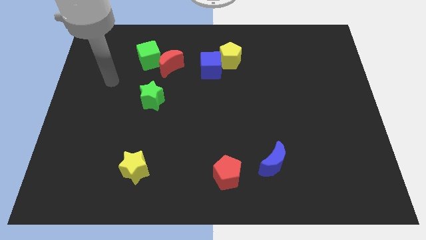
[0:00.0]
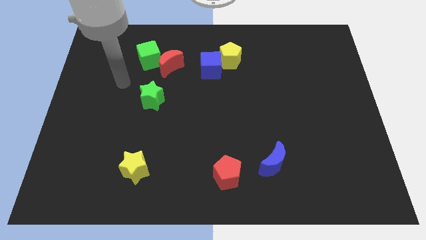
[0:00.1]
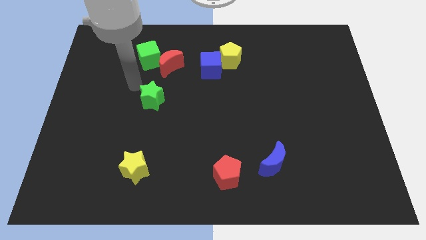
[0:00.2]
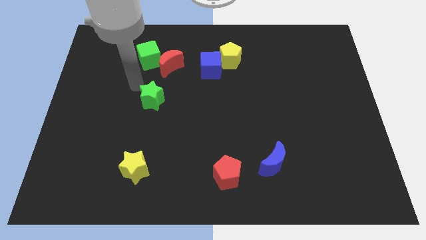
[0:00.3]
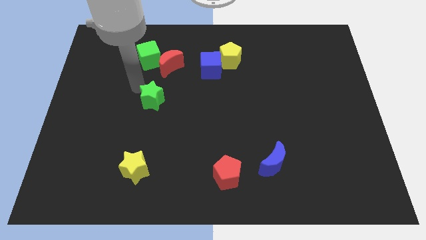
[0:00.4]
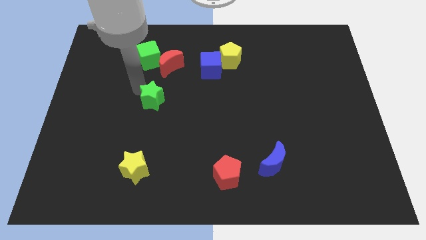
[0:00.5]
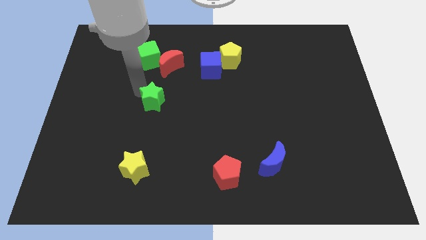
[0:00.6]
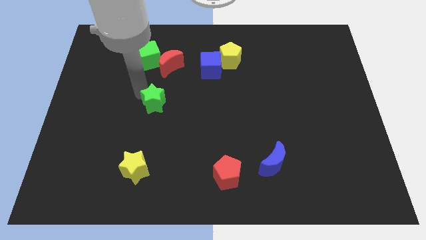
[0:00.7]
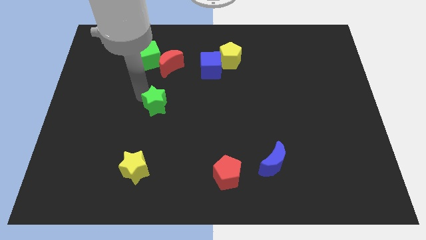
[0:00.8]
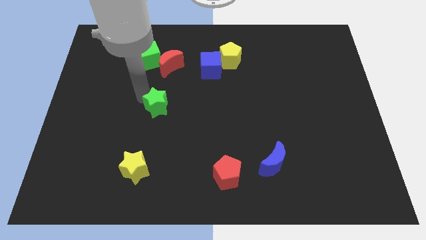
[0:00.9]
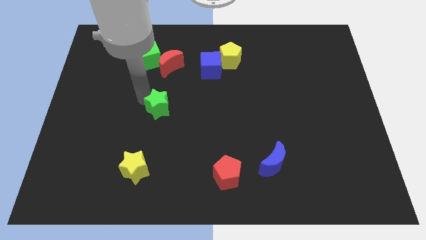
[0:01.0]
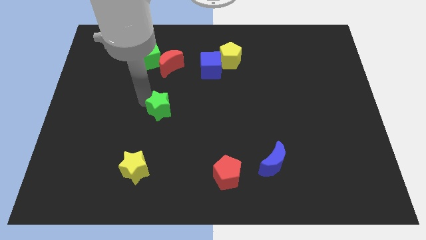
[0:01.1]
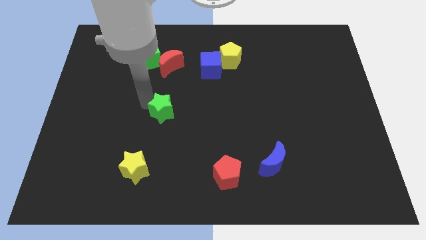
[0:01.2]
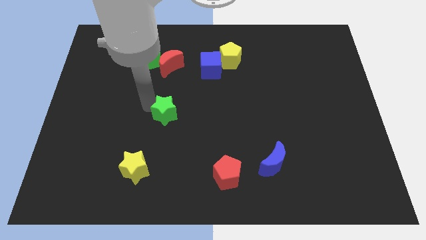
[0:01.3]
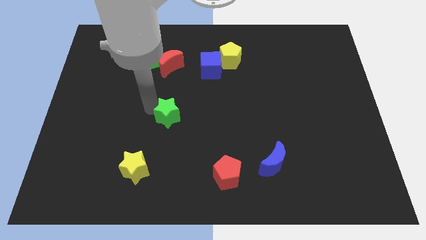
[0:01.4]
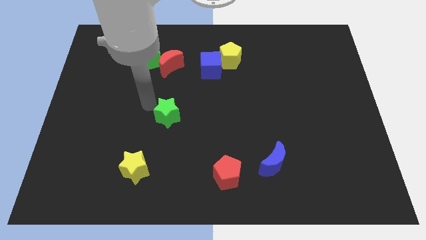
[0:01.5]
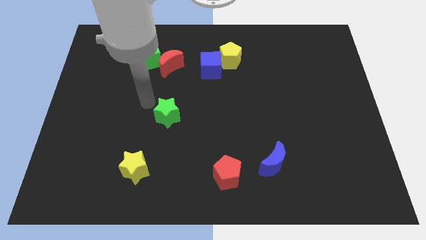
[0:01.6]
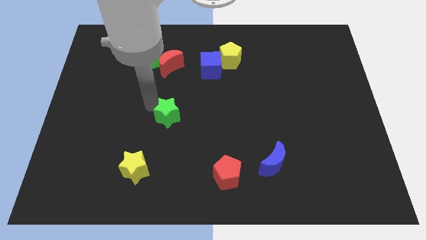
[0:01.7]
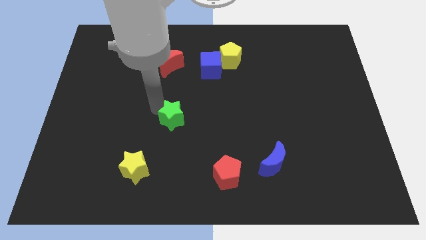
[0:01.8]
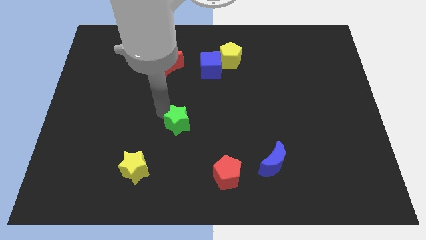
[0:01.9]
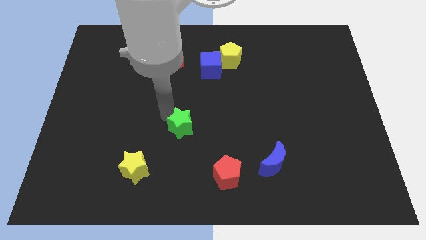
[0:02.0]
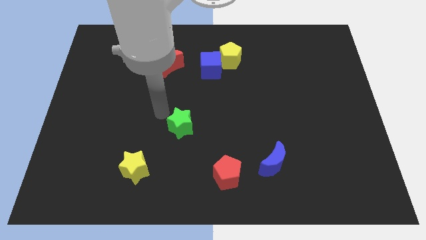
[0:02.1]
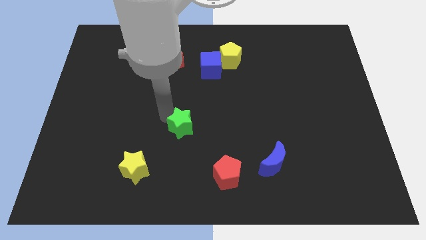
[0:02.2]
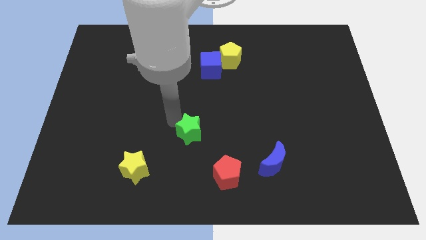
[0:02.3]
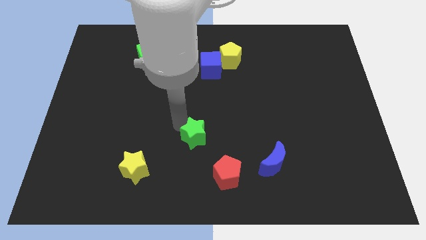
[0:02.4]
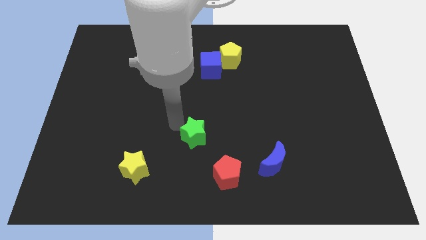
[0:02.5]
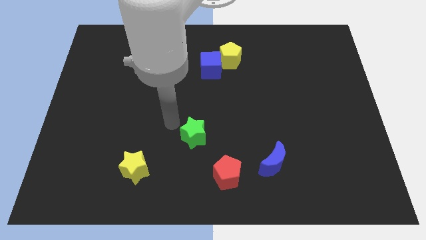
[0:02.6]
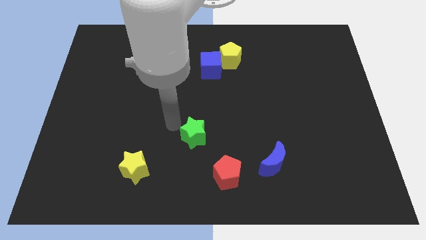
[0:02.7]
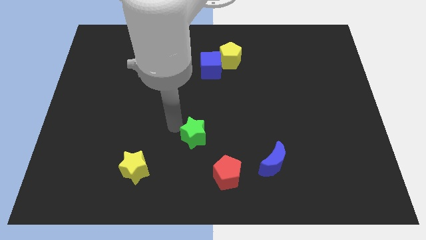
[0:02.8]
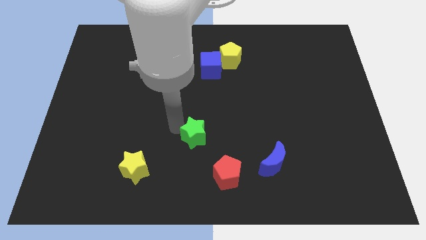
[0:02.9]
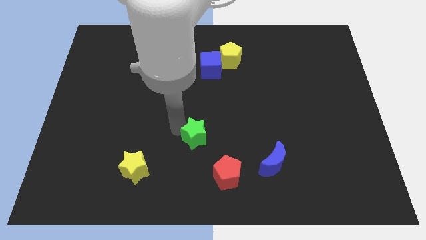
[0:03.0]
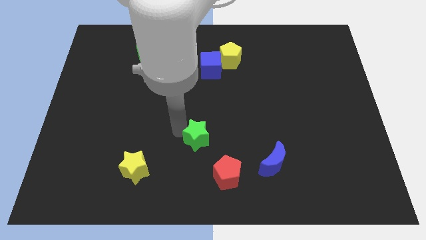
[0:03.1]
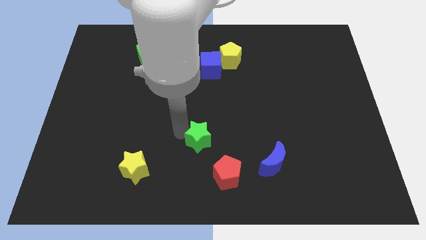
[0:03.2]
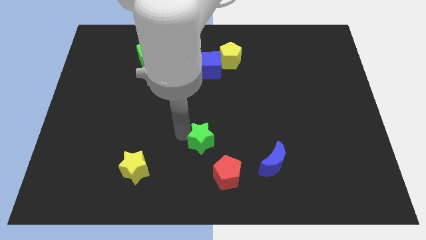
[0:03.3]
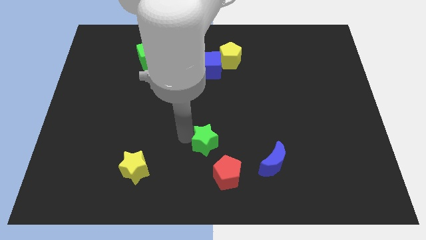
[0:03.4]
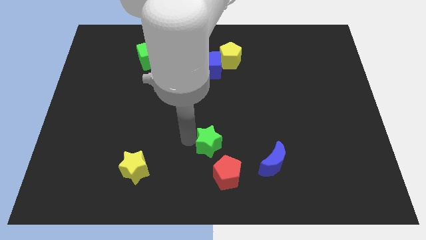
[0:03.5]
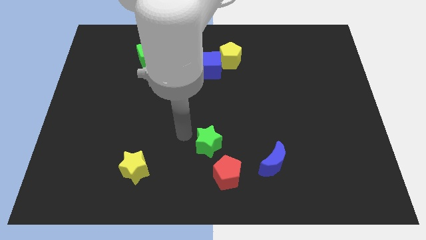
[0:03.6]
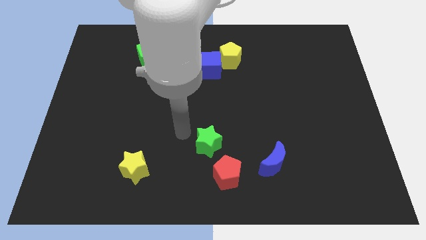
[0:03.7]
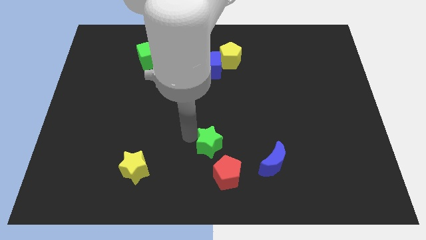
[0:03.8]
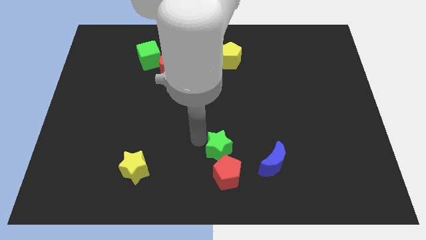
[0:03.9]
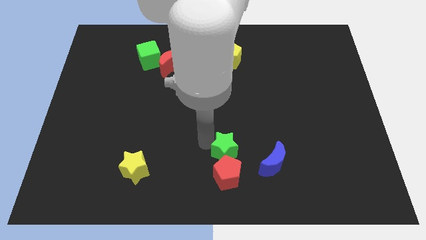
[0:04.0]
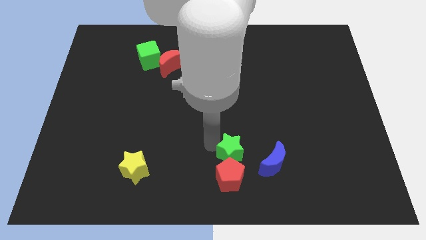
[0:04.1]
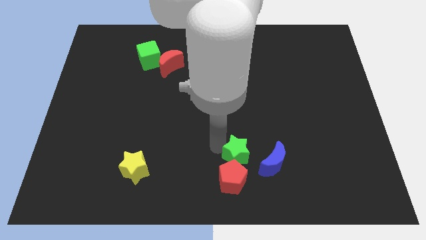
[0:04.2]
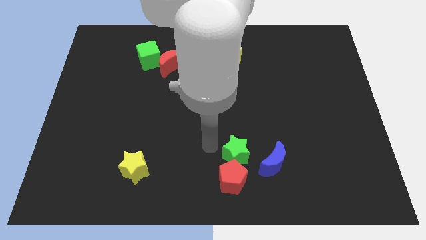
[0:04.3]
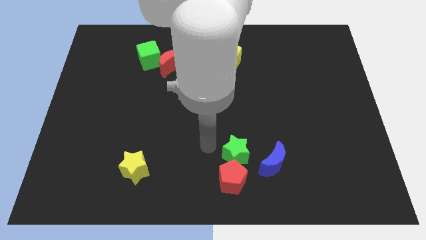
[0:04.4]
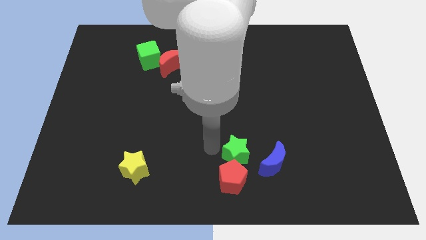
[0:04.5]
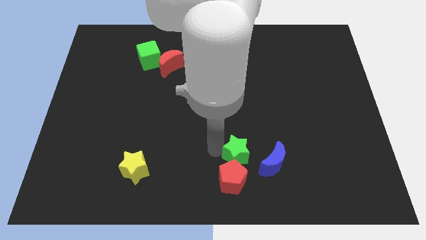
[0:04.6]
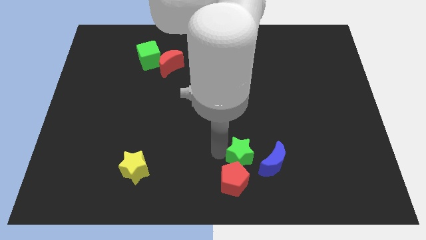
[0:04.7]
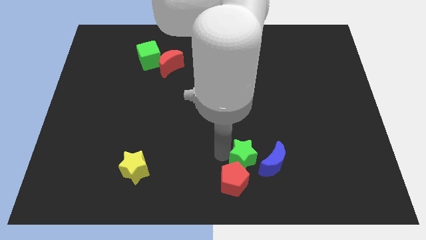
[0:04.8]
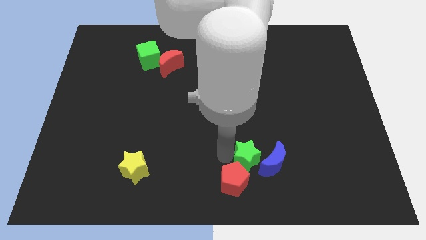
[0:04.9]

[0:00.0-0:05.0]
move the green star to the blue moon

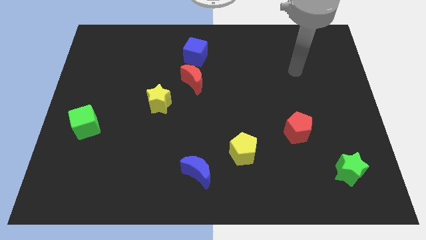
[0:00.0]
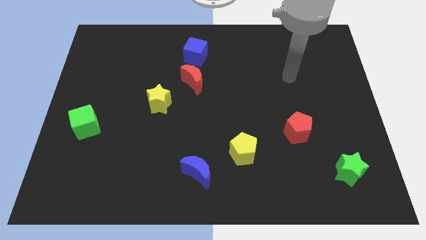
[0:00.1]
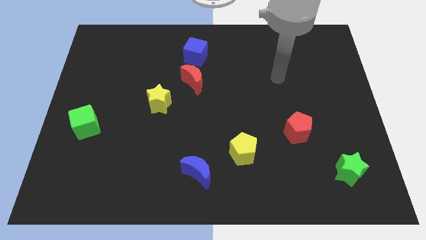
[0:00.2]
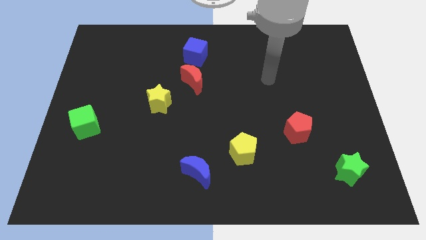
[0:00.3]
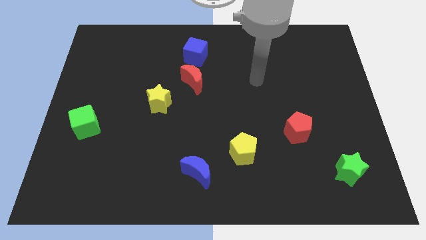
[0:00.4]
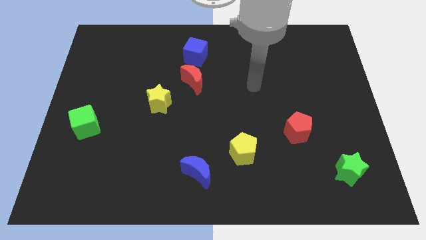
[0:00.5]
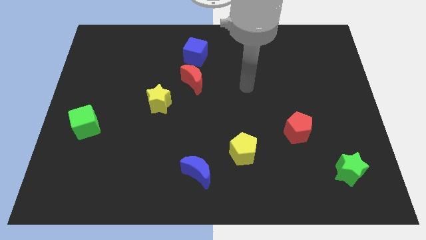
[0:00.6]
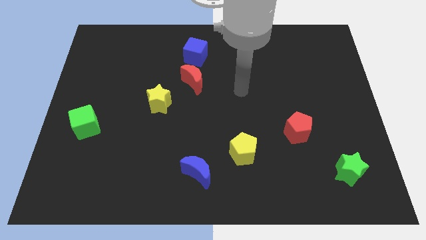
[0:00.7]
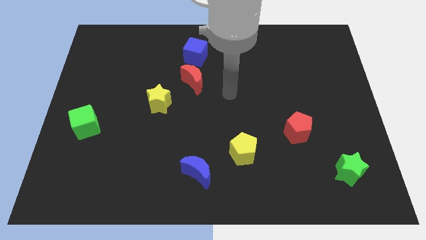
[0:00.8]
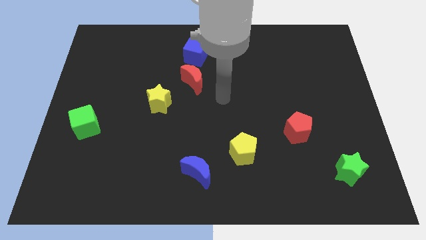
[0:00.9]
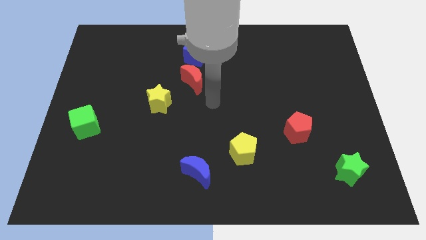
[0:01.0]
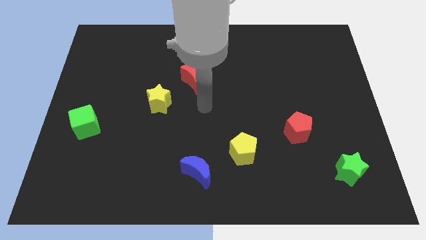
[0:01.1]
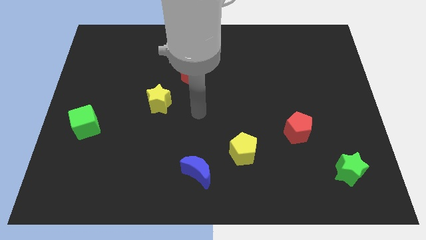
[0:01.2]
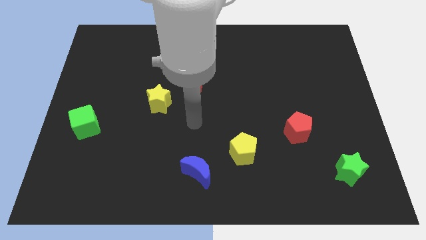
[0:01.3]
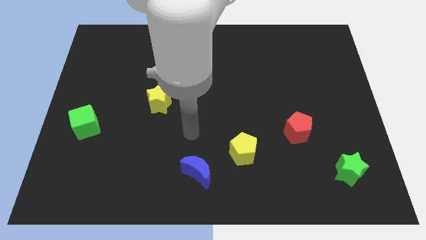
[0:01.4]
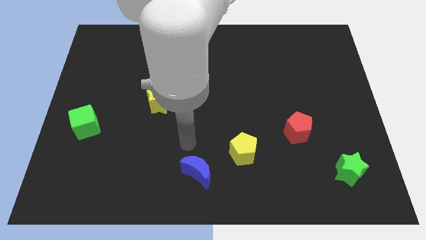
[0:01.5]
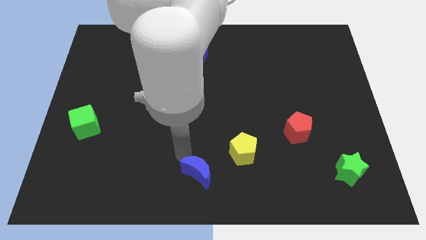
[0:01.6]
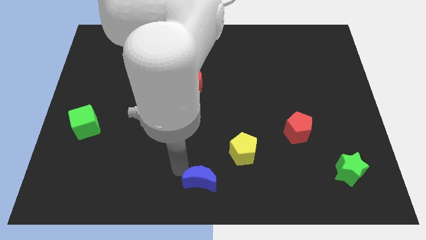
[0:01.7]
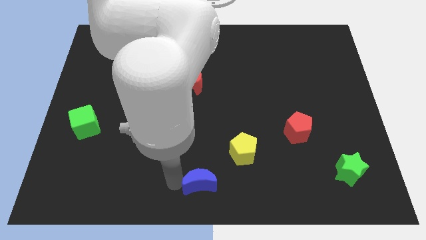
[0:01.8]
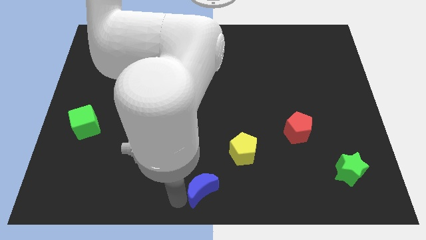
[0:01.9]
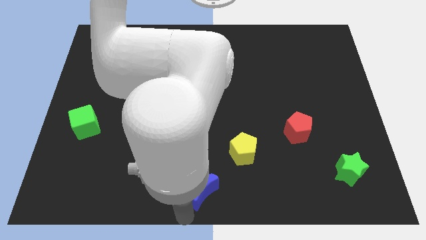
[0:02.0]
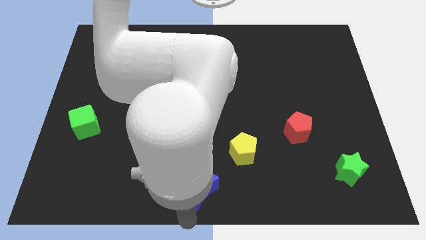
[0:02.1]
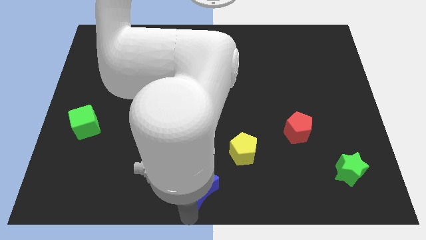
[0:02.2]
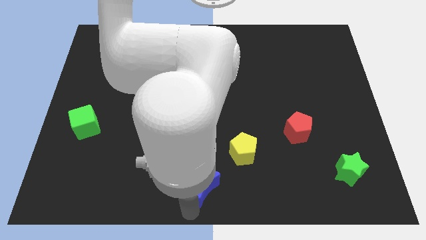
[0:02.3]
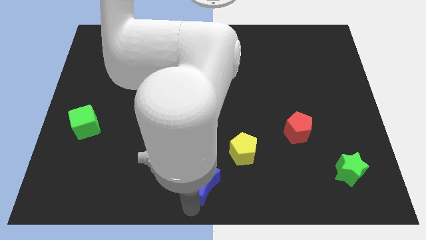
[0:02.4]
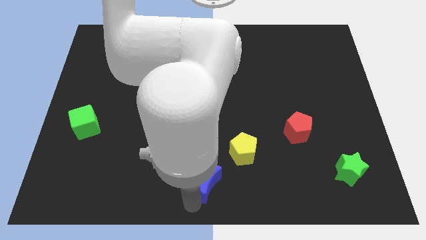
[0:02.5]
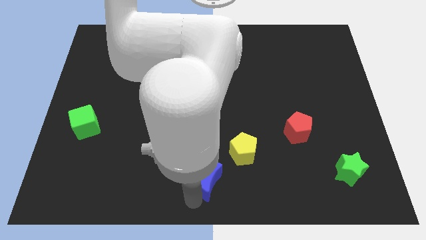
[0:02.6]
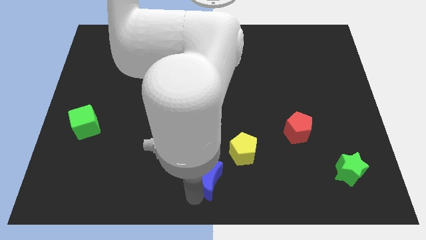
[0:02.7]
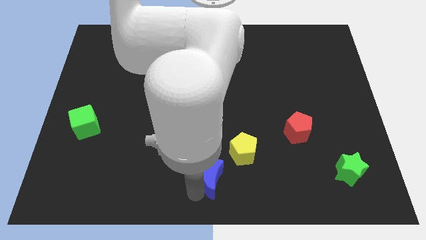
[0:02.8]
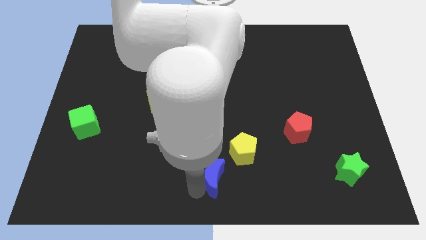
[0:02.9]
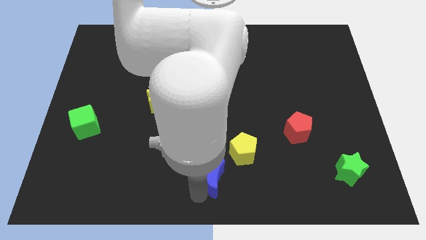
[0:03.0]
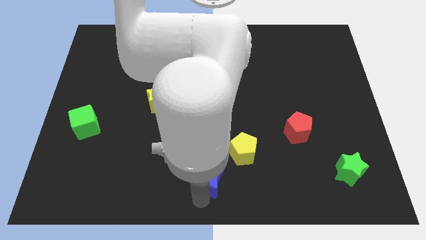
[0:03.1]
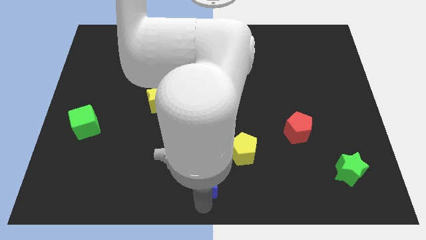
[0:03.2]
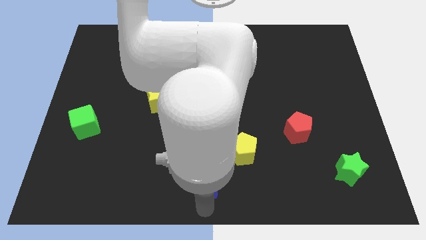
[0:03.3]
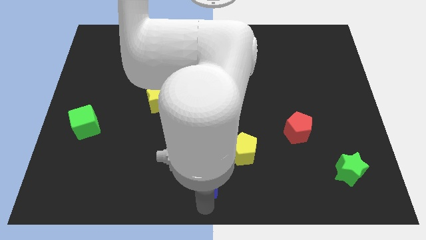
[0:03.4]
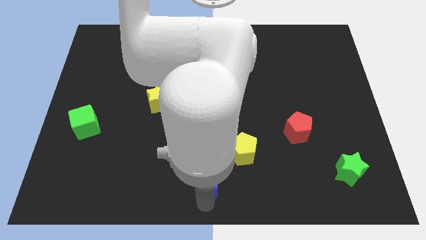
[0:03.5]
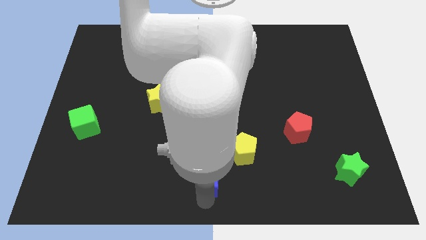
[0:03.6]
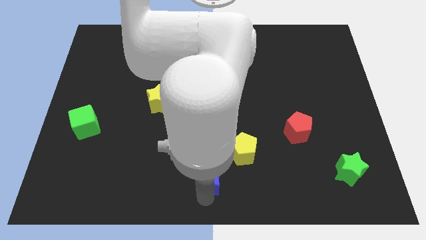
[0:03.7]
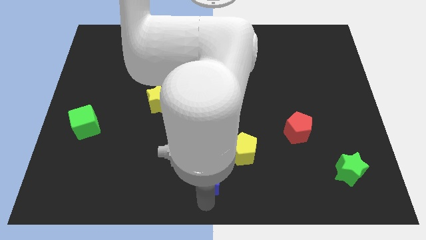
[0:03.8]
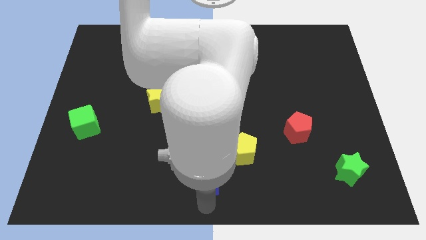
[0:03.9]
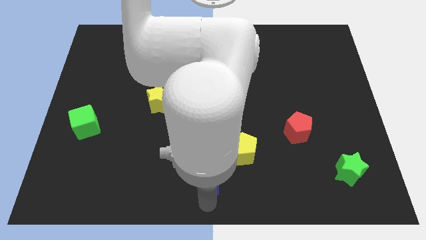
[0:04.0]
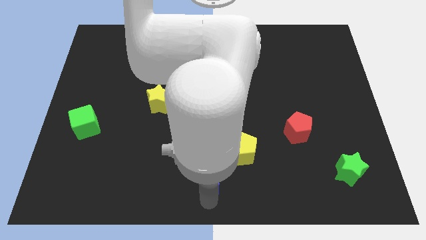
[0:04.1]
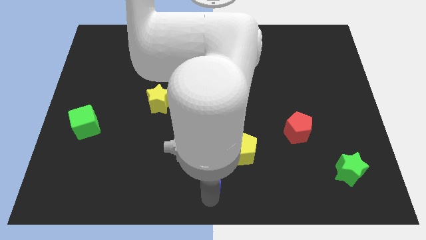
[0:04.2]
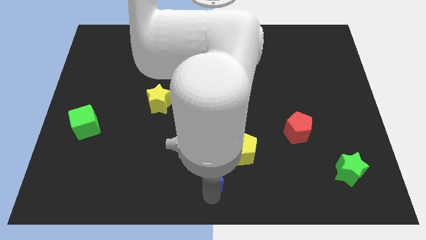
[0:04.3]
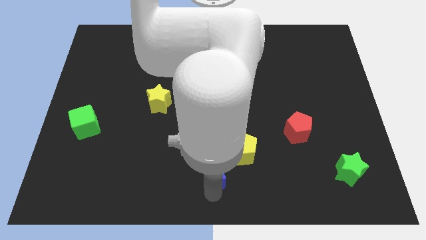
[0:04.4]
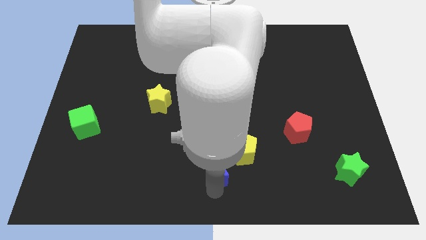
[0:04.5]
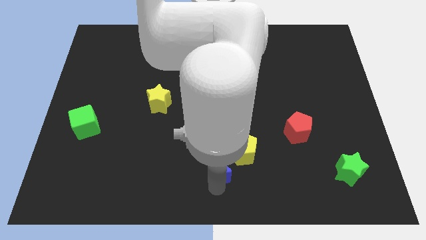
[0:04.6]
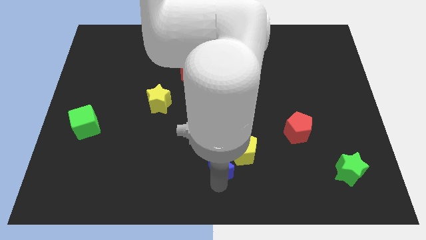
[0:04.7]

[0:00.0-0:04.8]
put the blue moon to the yellow pentagon
